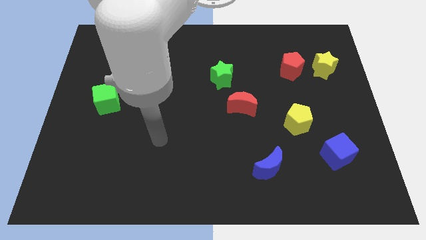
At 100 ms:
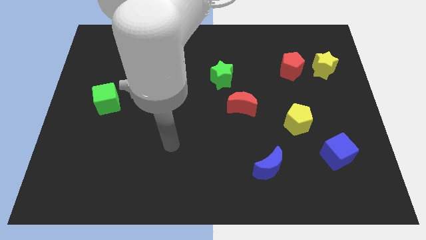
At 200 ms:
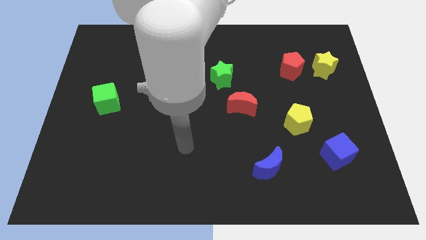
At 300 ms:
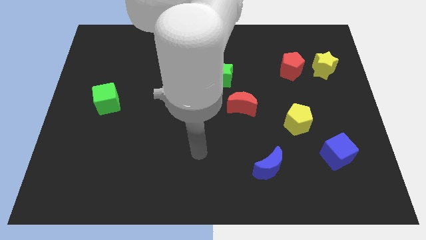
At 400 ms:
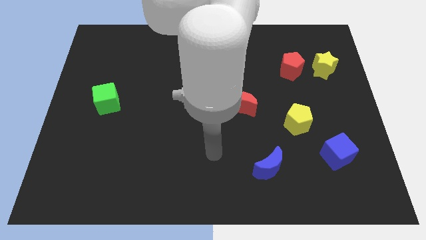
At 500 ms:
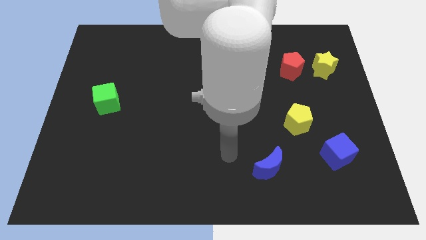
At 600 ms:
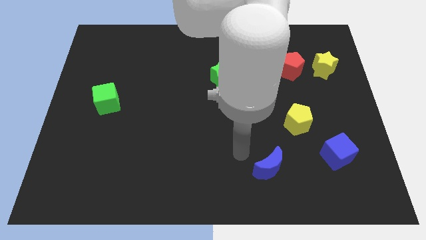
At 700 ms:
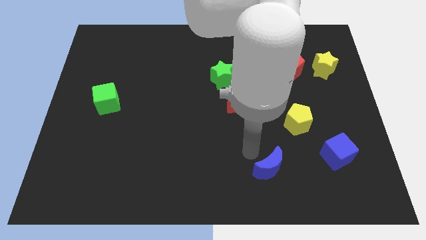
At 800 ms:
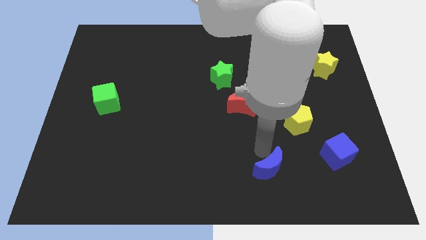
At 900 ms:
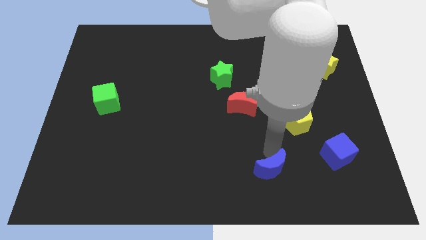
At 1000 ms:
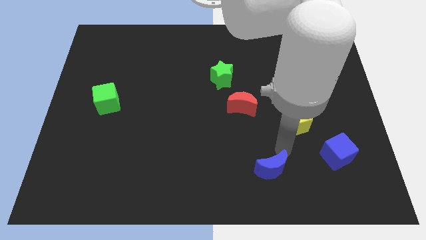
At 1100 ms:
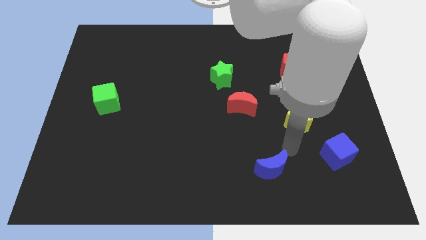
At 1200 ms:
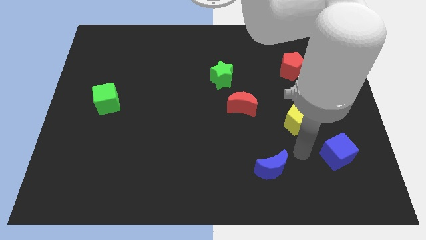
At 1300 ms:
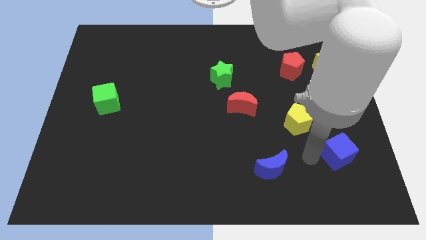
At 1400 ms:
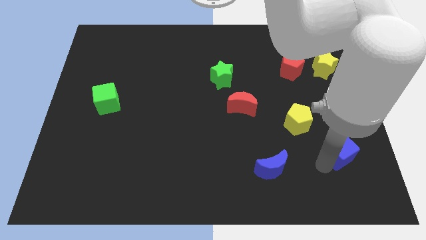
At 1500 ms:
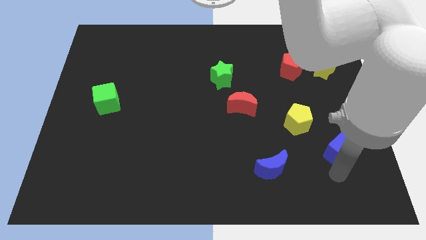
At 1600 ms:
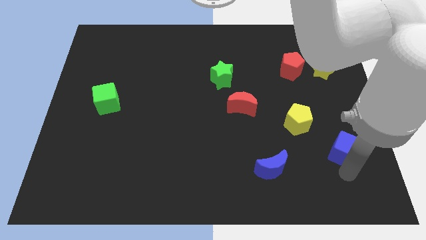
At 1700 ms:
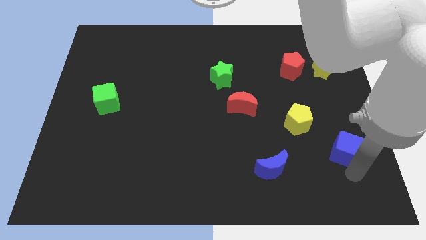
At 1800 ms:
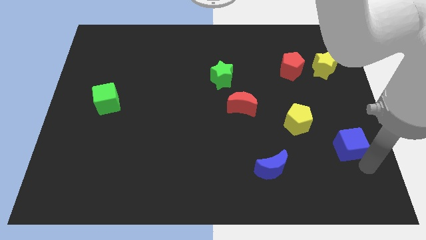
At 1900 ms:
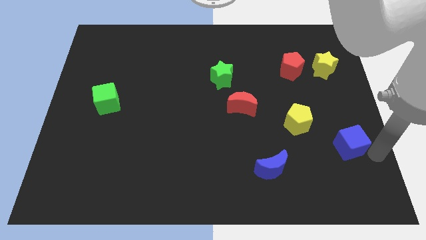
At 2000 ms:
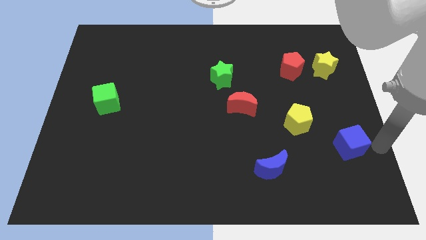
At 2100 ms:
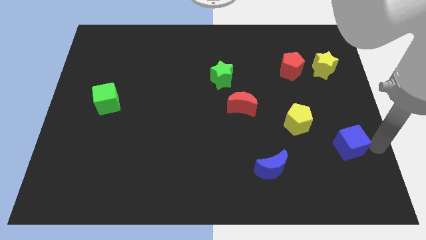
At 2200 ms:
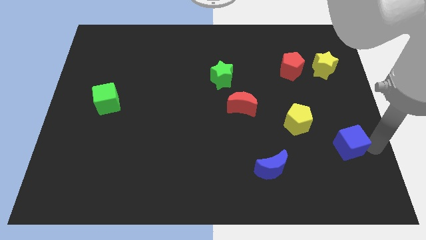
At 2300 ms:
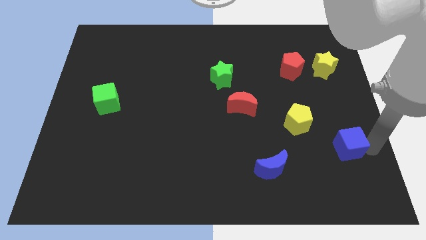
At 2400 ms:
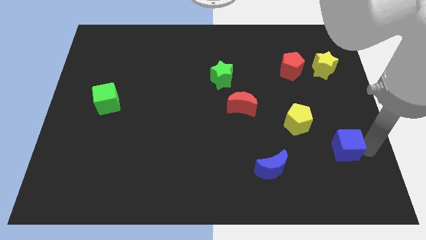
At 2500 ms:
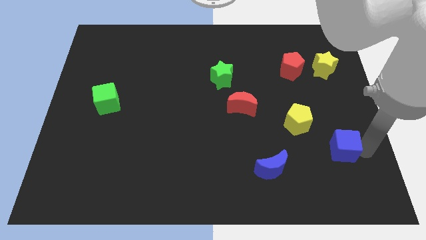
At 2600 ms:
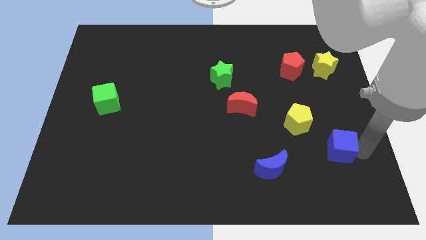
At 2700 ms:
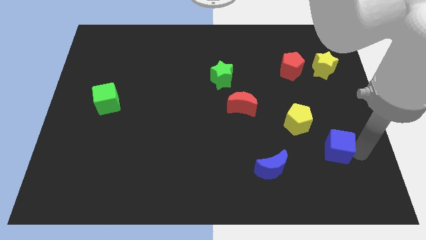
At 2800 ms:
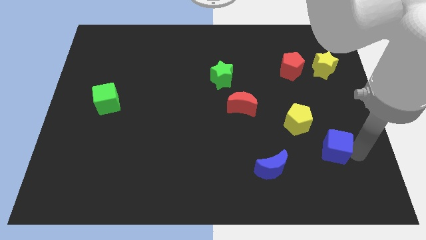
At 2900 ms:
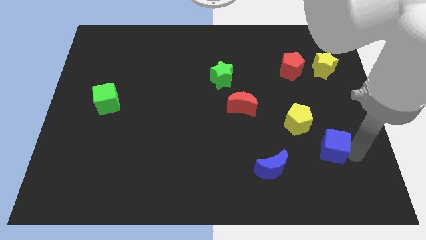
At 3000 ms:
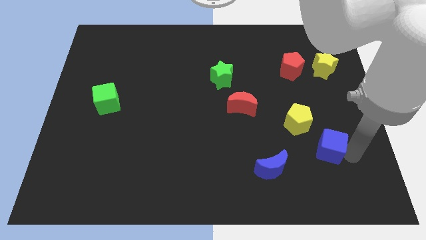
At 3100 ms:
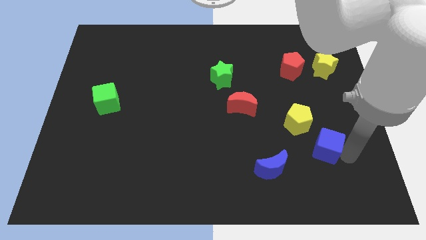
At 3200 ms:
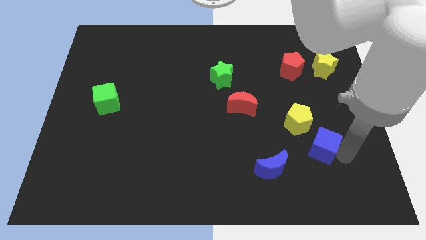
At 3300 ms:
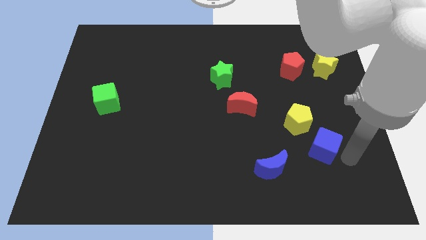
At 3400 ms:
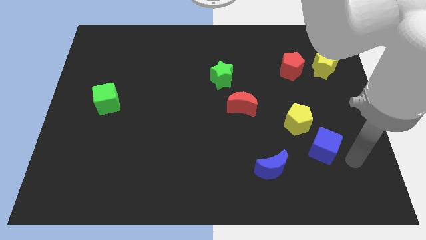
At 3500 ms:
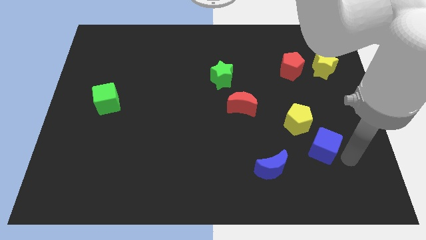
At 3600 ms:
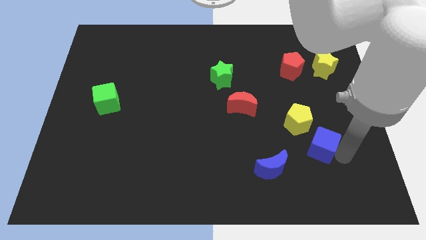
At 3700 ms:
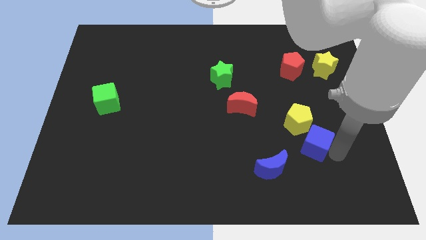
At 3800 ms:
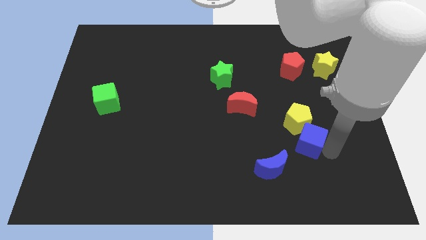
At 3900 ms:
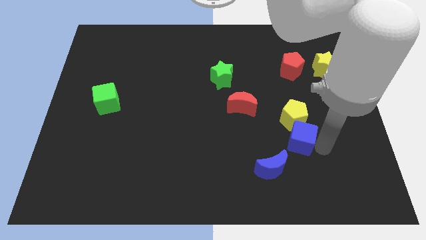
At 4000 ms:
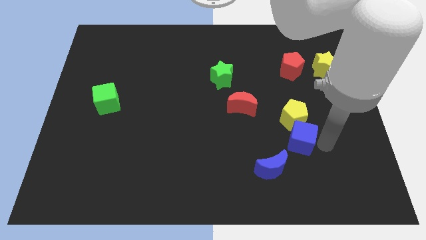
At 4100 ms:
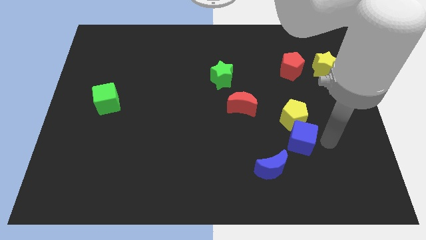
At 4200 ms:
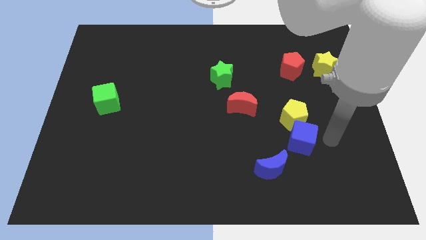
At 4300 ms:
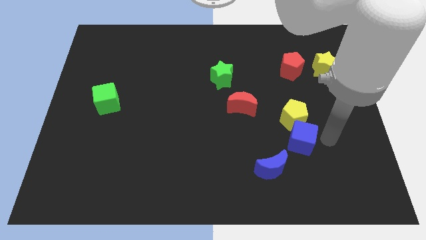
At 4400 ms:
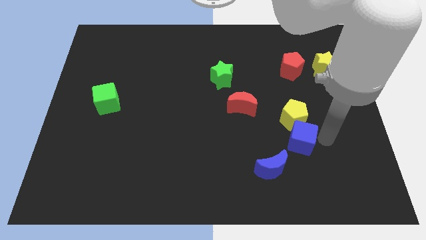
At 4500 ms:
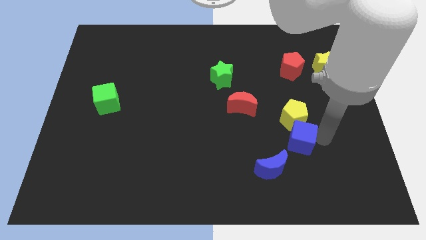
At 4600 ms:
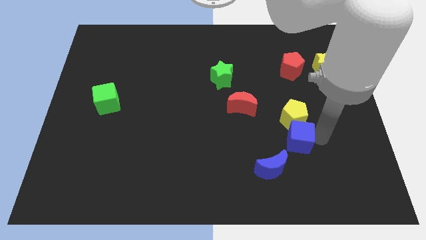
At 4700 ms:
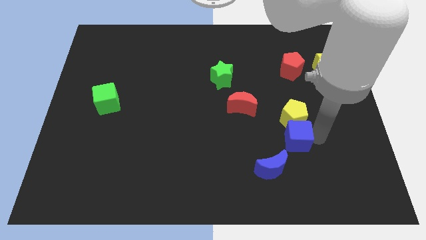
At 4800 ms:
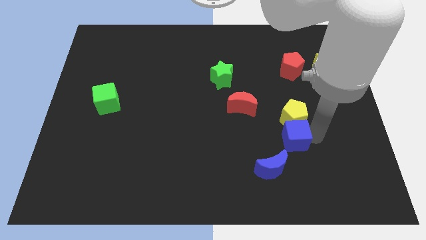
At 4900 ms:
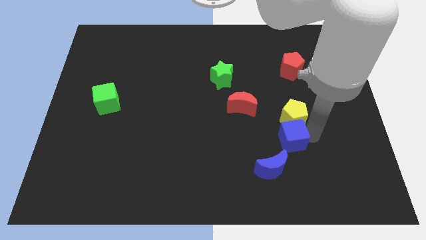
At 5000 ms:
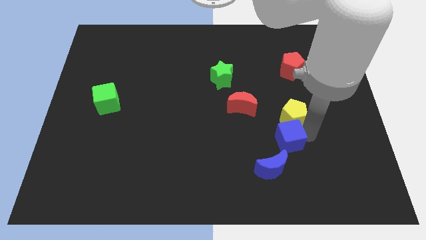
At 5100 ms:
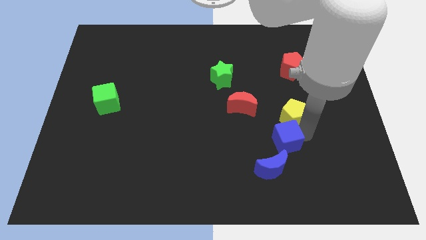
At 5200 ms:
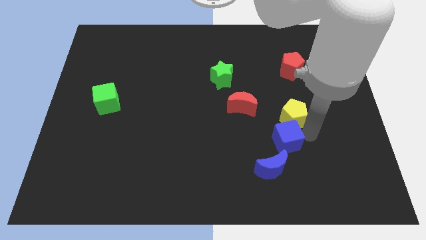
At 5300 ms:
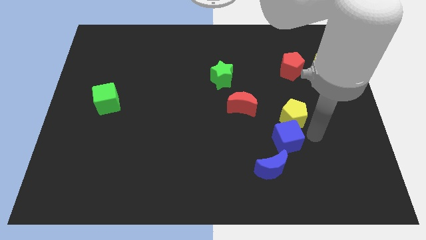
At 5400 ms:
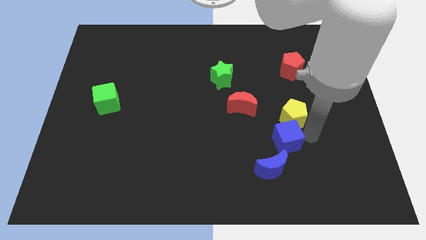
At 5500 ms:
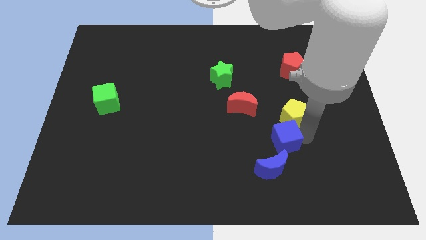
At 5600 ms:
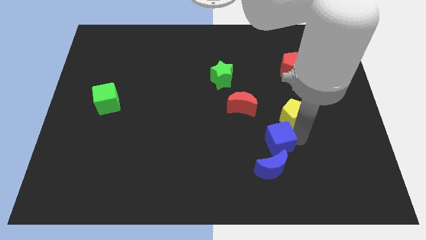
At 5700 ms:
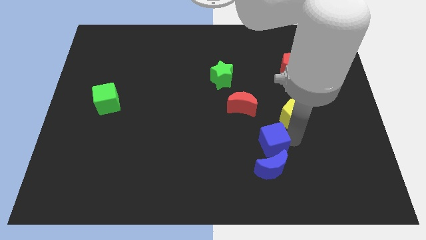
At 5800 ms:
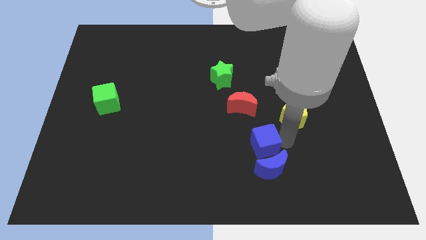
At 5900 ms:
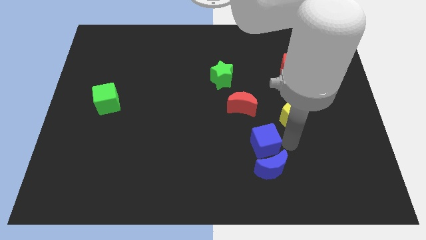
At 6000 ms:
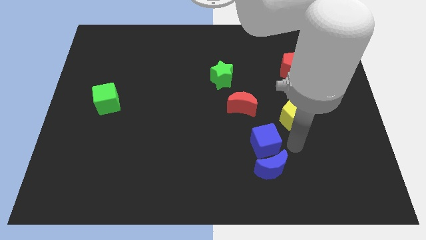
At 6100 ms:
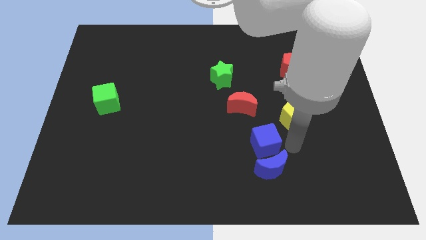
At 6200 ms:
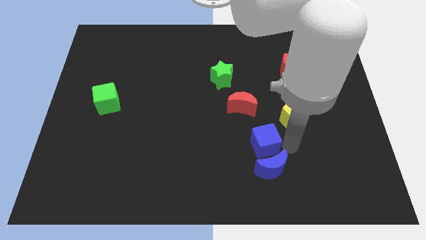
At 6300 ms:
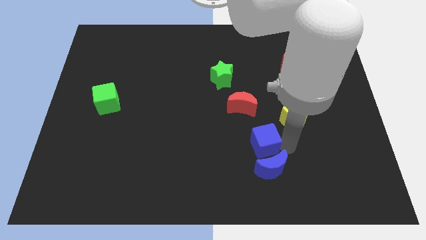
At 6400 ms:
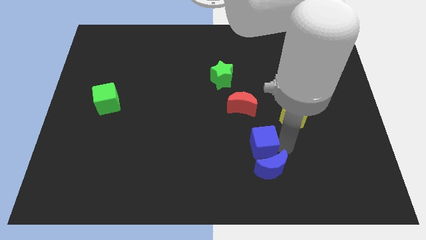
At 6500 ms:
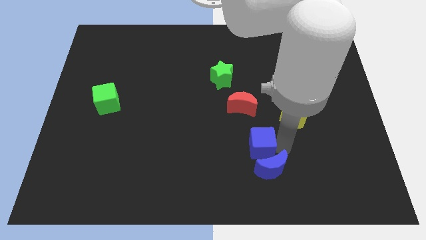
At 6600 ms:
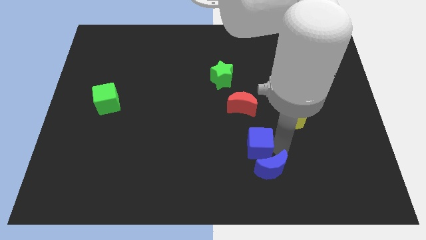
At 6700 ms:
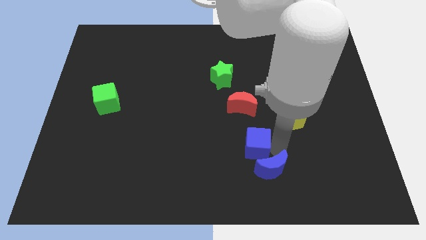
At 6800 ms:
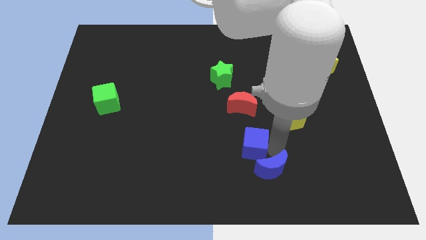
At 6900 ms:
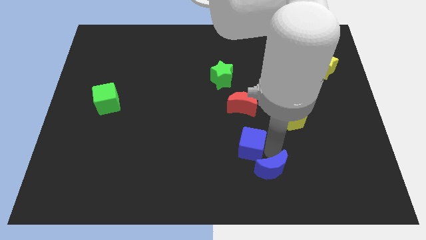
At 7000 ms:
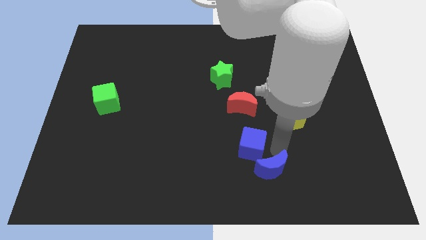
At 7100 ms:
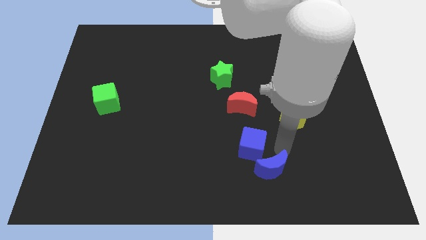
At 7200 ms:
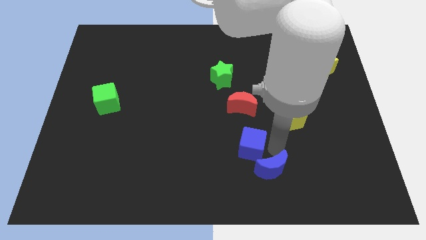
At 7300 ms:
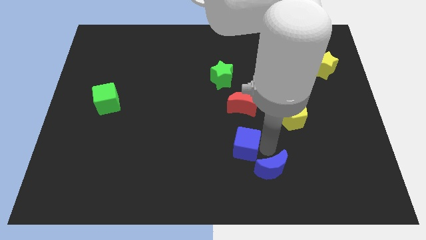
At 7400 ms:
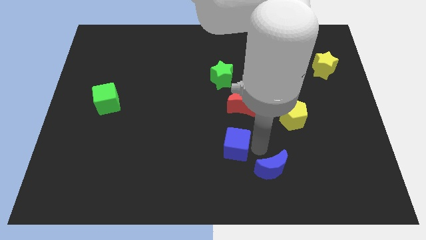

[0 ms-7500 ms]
move the blue cube left

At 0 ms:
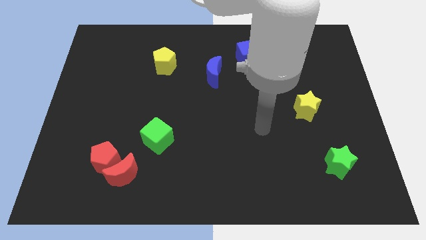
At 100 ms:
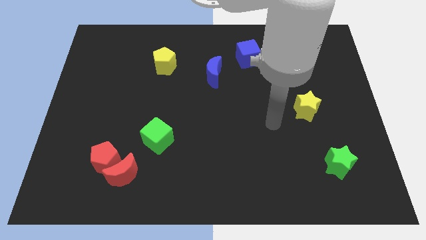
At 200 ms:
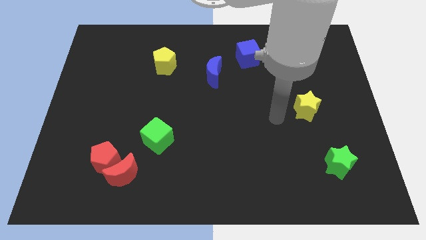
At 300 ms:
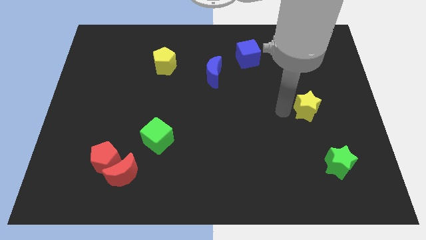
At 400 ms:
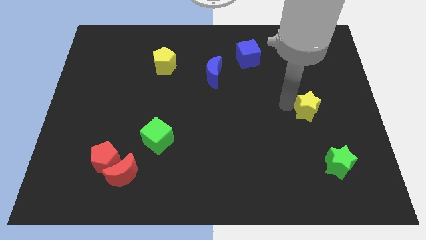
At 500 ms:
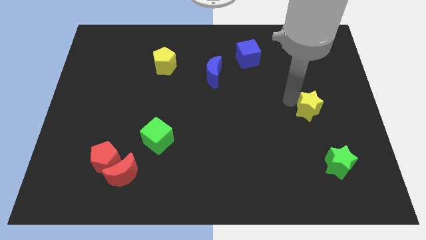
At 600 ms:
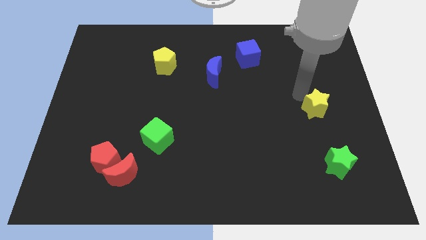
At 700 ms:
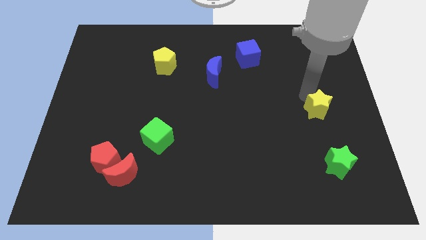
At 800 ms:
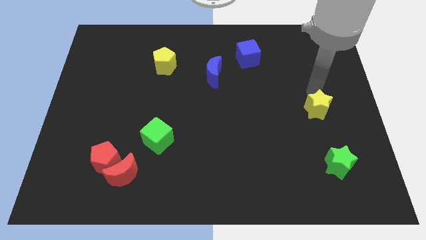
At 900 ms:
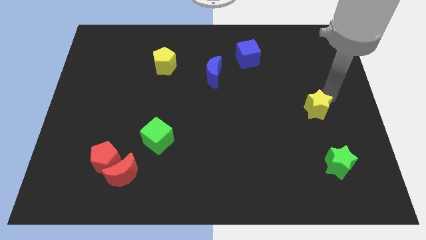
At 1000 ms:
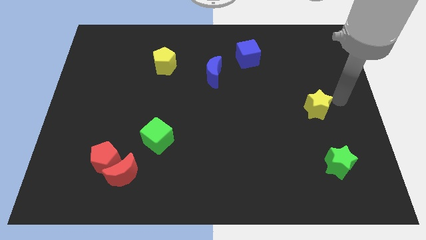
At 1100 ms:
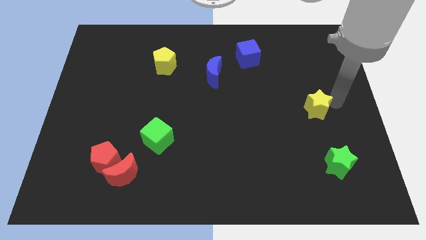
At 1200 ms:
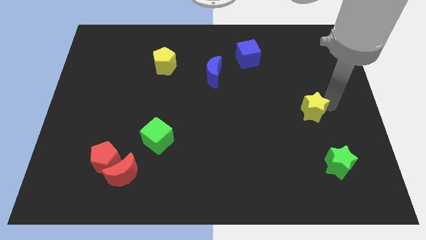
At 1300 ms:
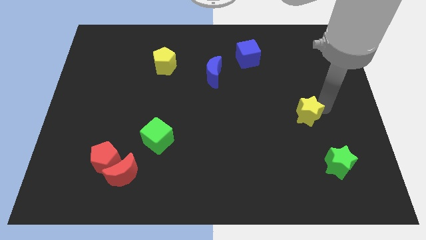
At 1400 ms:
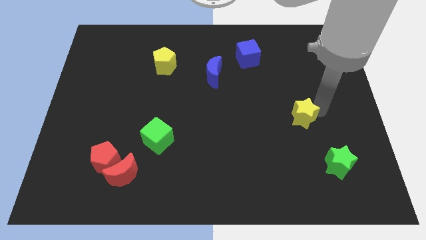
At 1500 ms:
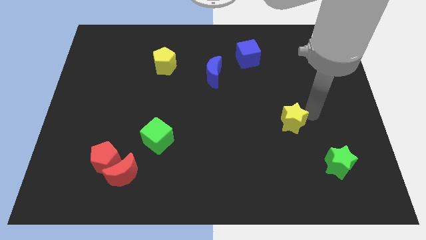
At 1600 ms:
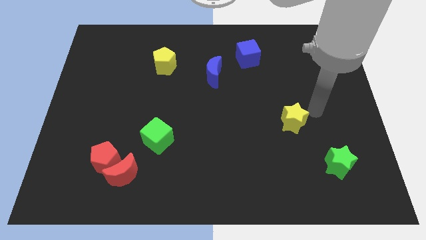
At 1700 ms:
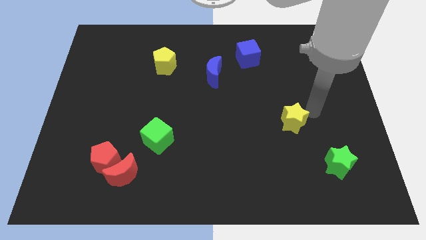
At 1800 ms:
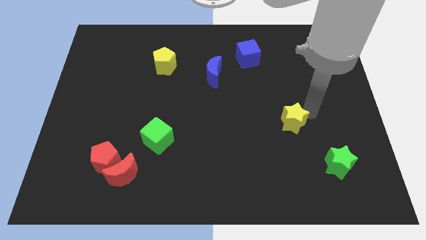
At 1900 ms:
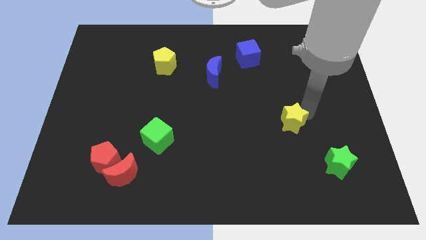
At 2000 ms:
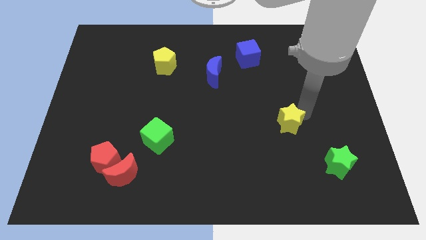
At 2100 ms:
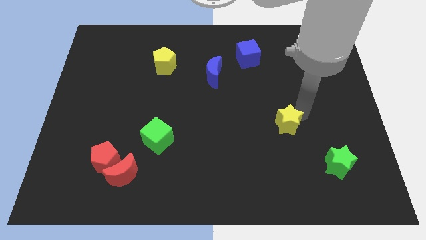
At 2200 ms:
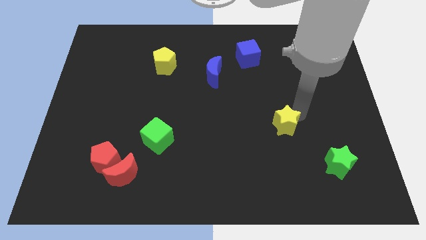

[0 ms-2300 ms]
move the yellow star diagonally down and left slightly
